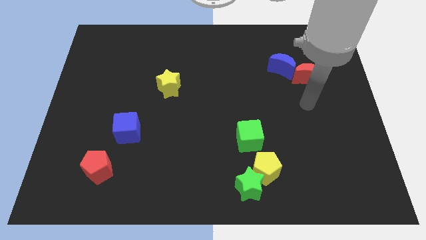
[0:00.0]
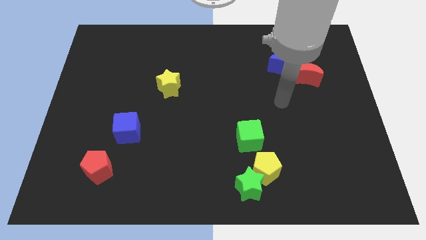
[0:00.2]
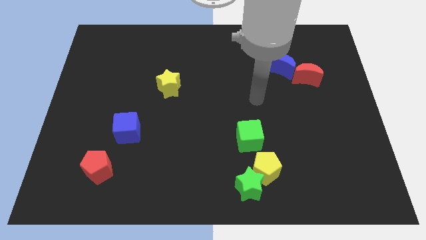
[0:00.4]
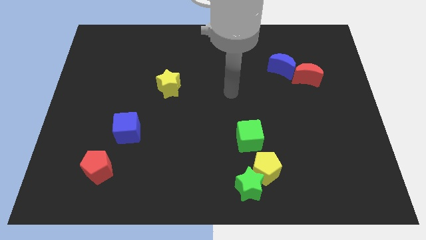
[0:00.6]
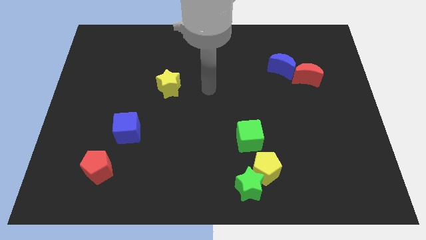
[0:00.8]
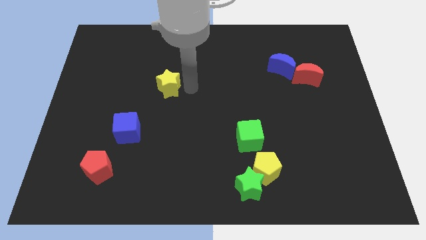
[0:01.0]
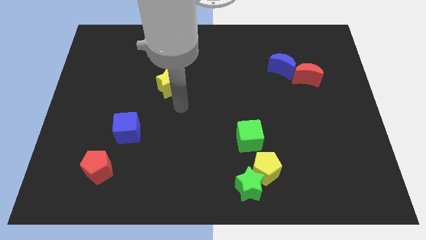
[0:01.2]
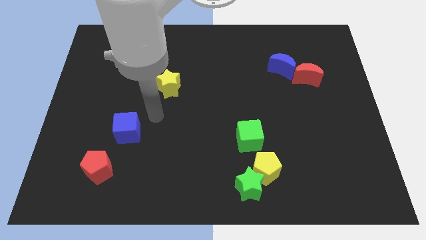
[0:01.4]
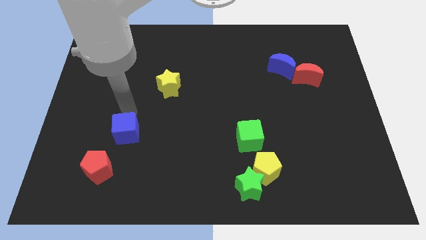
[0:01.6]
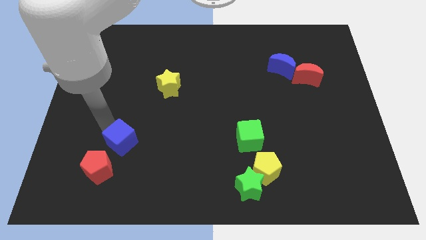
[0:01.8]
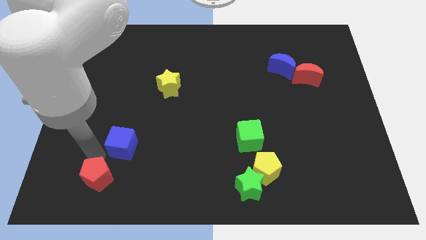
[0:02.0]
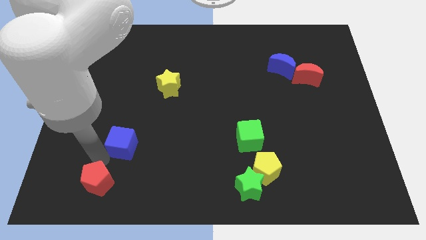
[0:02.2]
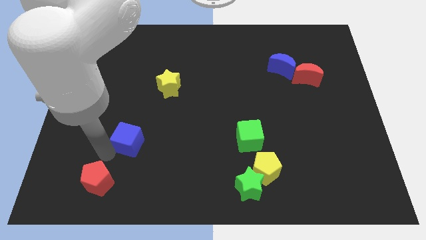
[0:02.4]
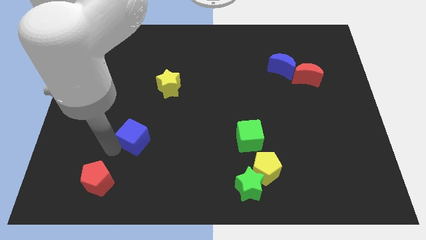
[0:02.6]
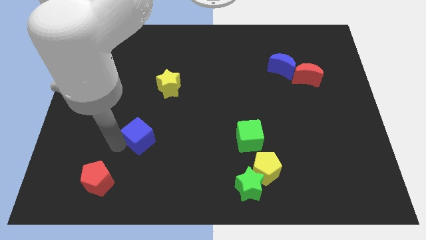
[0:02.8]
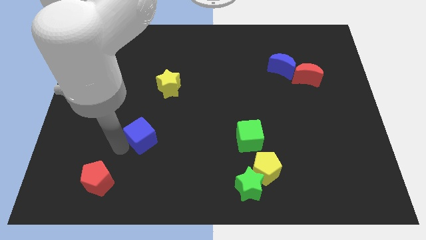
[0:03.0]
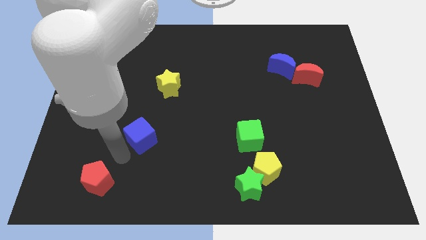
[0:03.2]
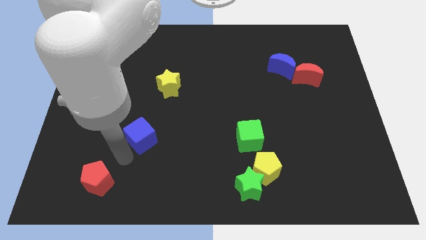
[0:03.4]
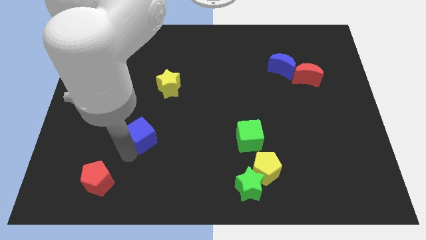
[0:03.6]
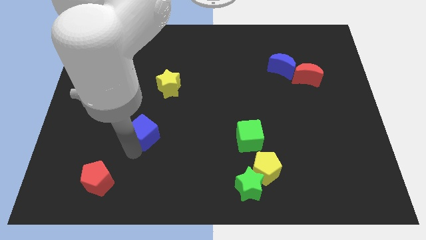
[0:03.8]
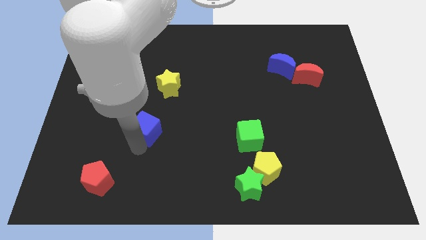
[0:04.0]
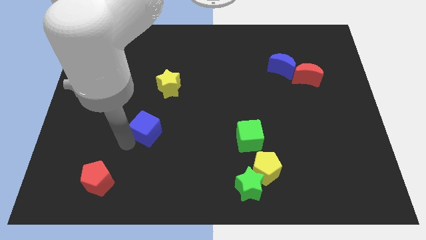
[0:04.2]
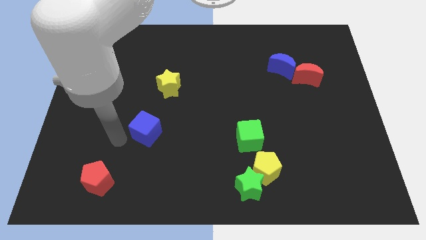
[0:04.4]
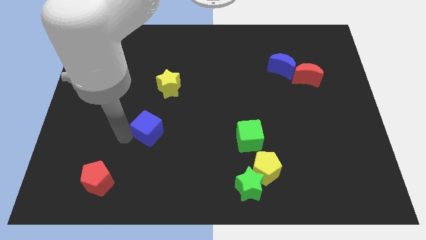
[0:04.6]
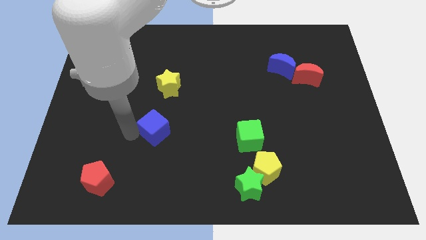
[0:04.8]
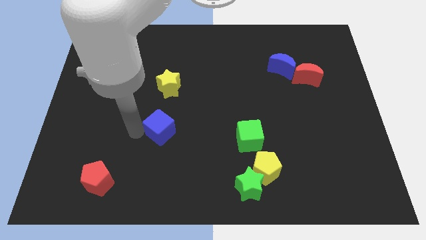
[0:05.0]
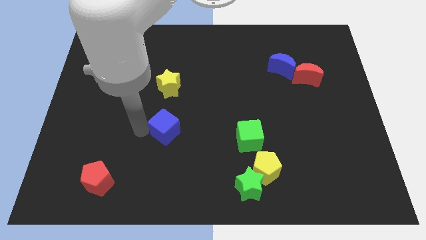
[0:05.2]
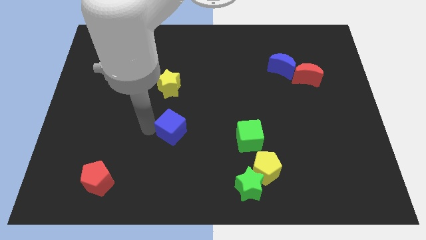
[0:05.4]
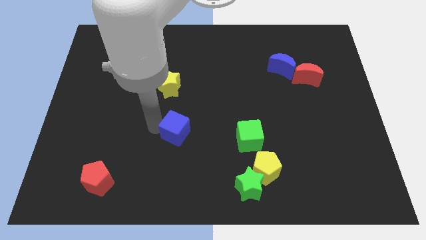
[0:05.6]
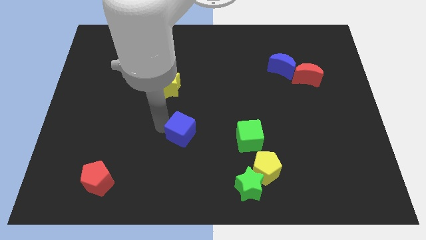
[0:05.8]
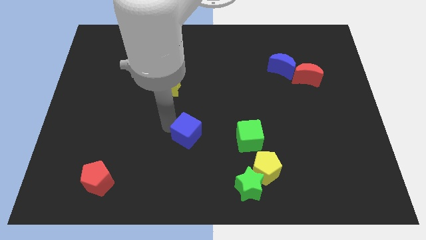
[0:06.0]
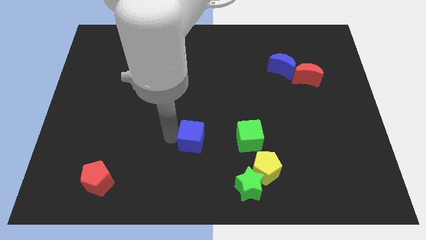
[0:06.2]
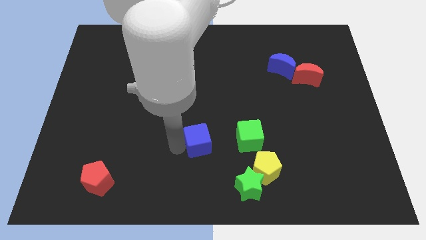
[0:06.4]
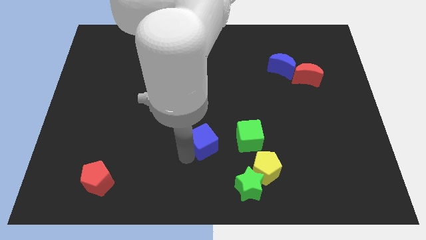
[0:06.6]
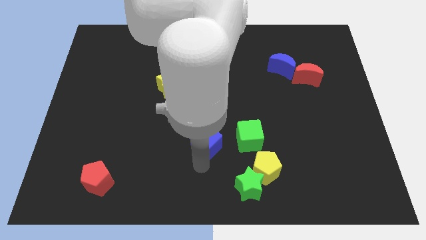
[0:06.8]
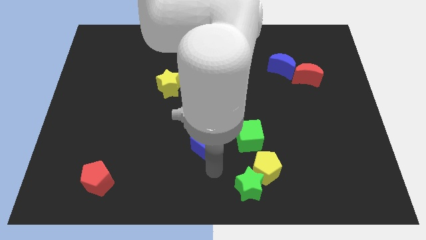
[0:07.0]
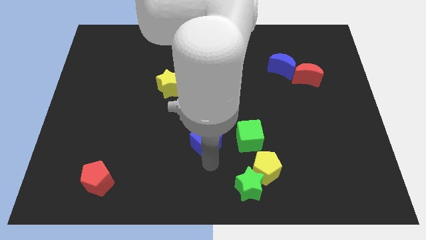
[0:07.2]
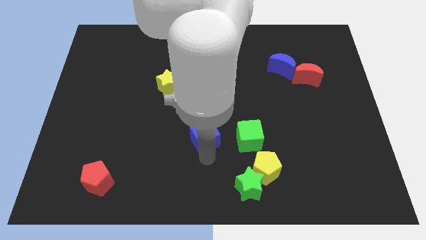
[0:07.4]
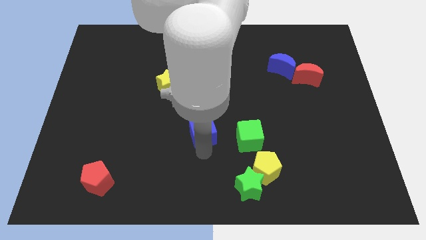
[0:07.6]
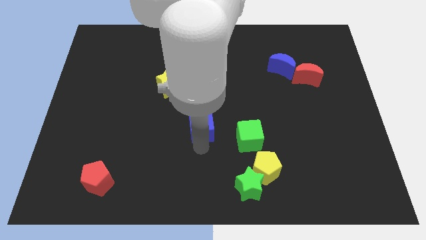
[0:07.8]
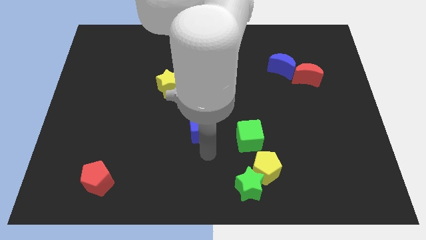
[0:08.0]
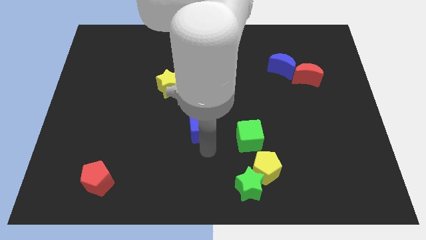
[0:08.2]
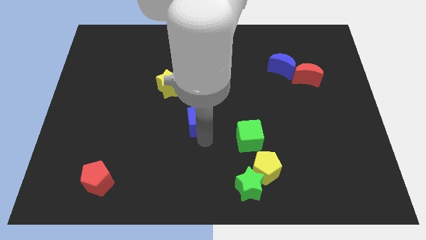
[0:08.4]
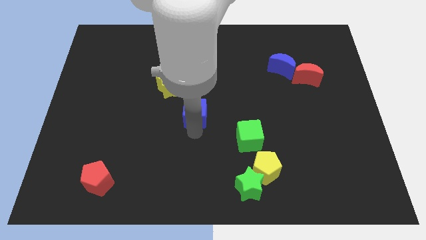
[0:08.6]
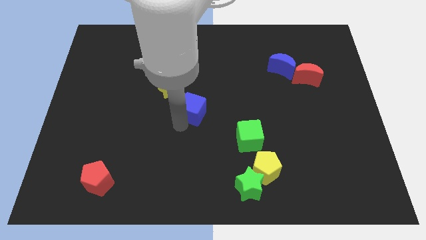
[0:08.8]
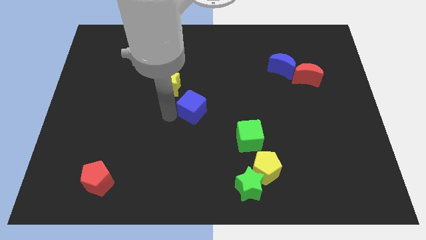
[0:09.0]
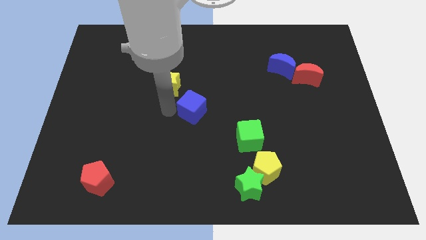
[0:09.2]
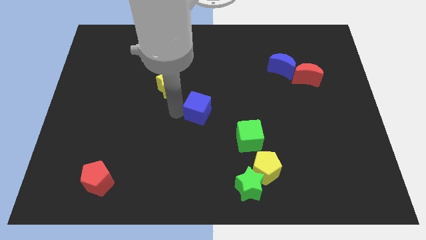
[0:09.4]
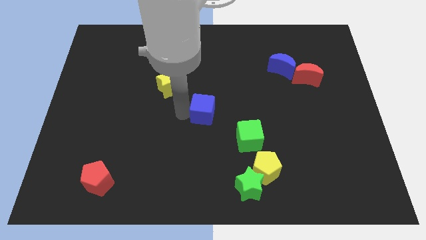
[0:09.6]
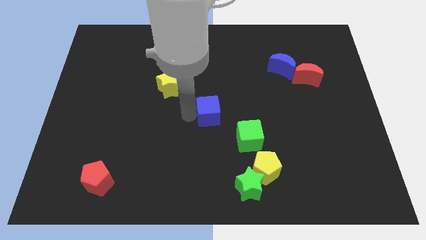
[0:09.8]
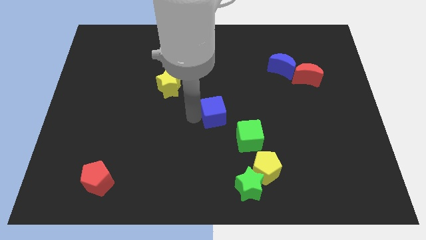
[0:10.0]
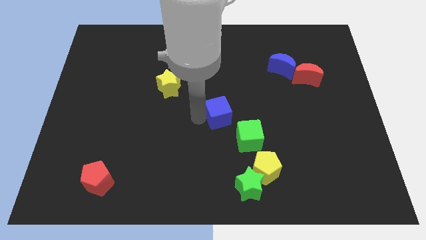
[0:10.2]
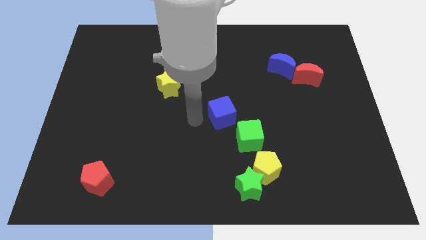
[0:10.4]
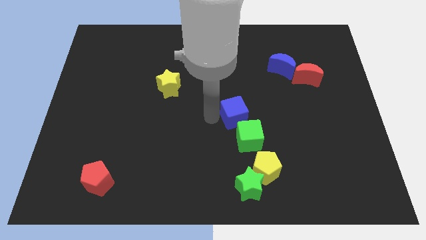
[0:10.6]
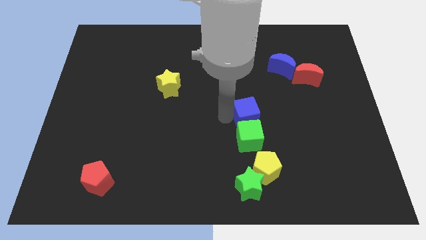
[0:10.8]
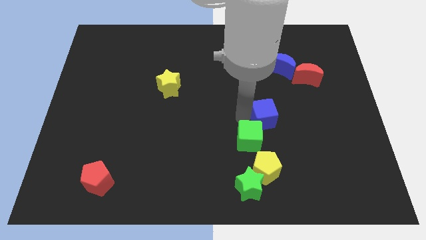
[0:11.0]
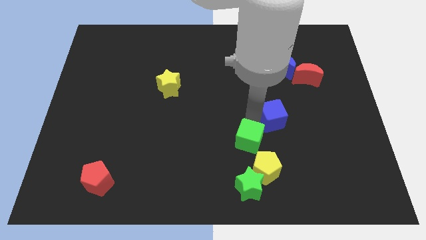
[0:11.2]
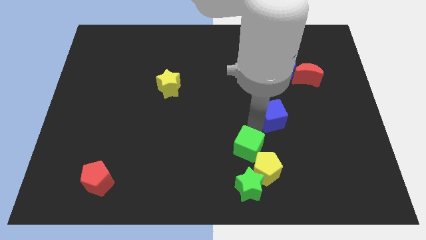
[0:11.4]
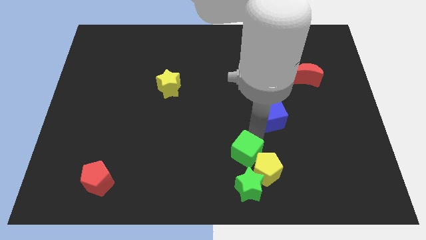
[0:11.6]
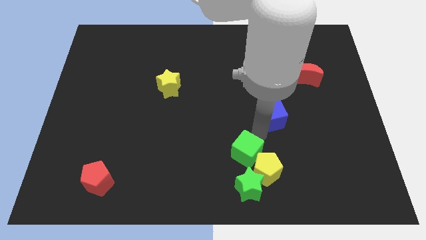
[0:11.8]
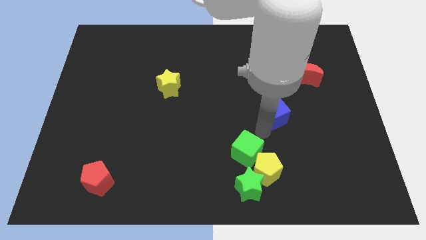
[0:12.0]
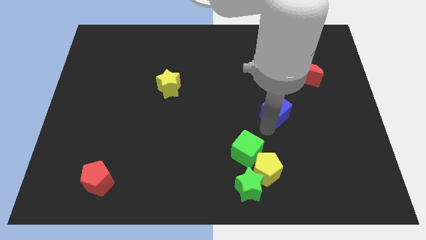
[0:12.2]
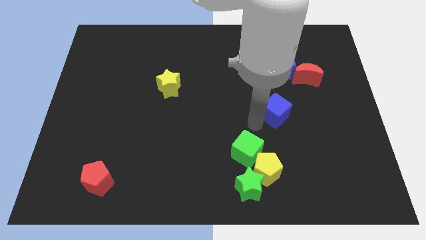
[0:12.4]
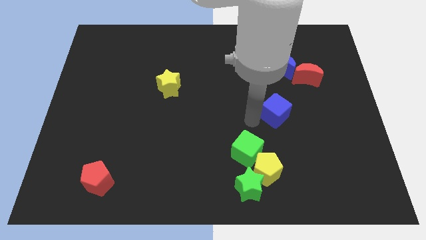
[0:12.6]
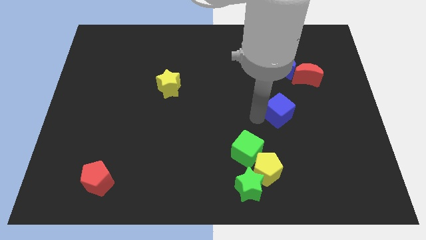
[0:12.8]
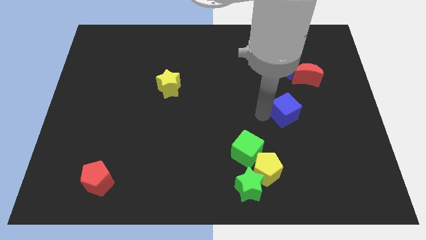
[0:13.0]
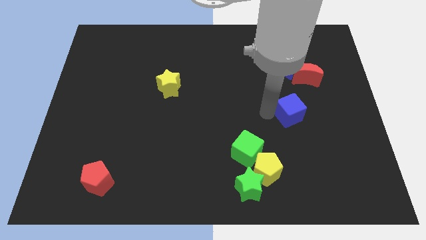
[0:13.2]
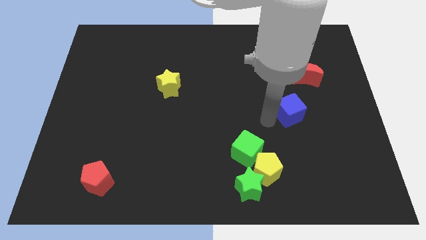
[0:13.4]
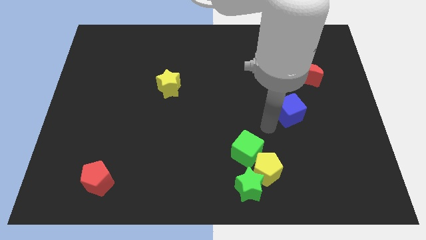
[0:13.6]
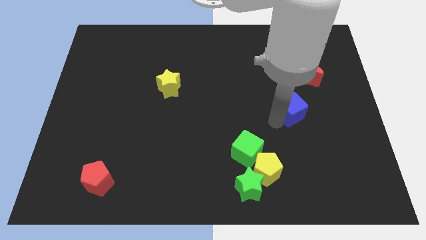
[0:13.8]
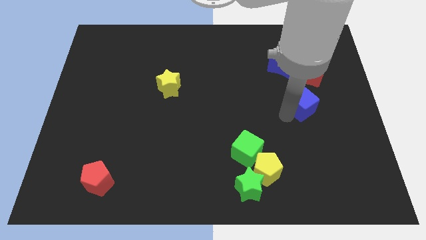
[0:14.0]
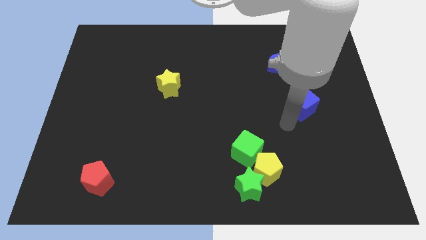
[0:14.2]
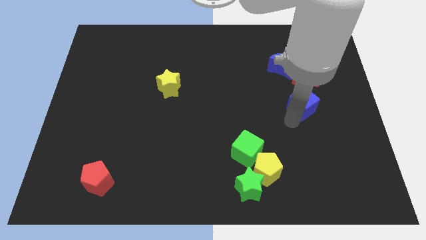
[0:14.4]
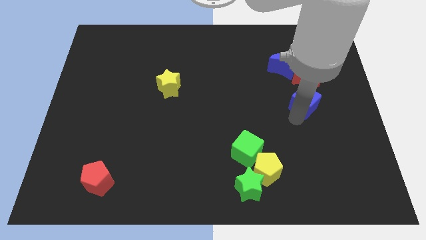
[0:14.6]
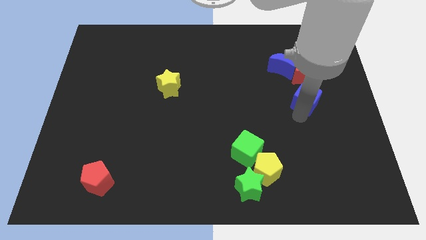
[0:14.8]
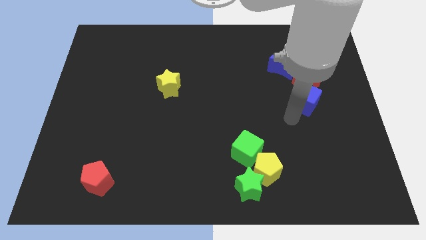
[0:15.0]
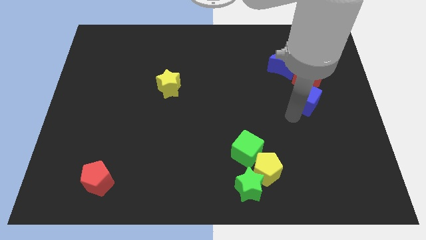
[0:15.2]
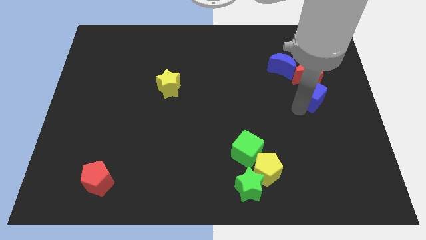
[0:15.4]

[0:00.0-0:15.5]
move the blue cube to the bottom right side of the blue moon
